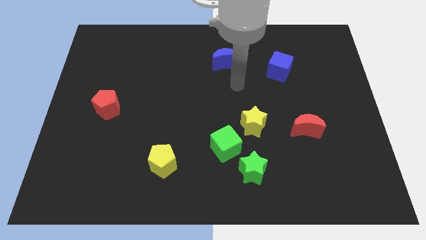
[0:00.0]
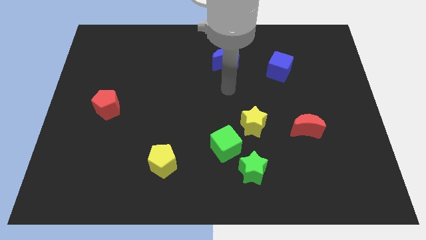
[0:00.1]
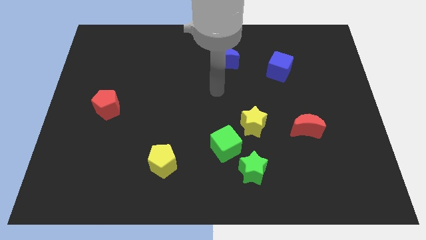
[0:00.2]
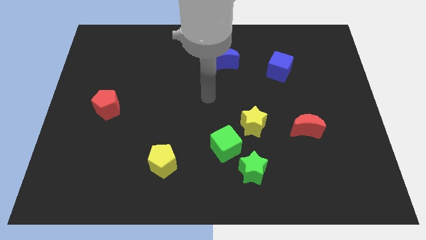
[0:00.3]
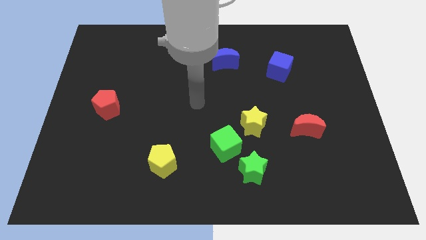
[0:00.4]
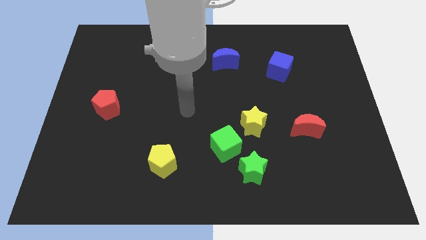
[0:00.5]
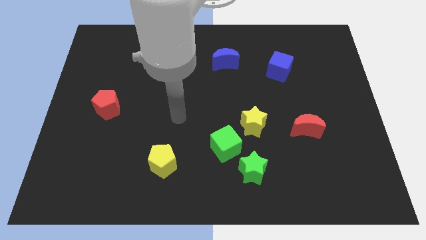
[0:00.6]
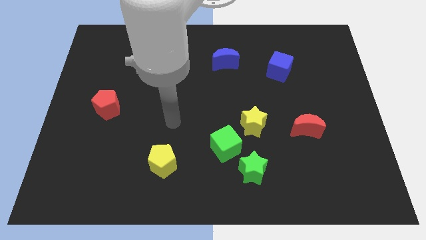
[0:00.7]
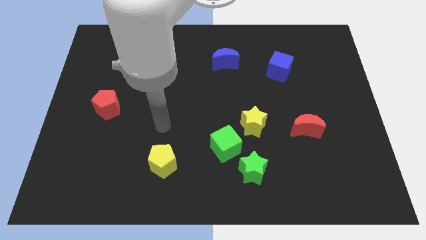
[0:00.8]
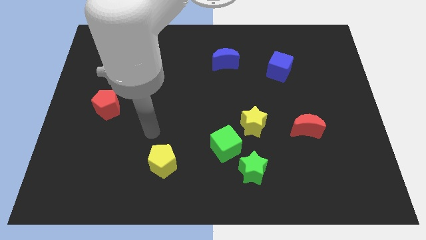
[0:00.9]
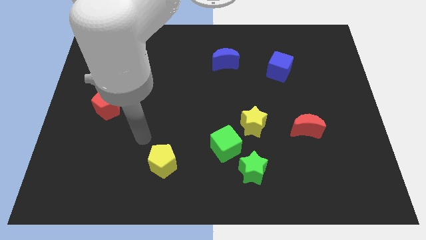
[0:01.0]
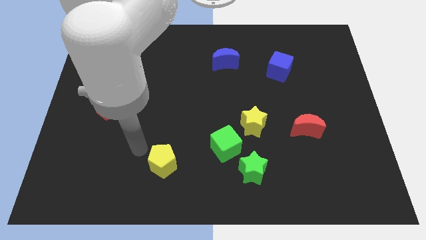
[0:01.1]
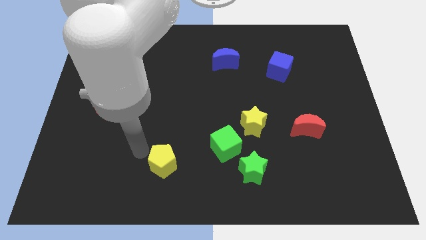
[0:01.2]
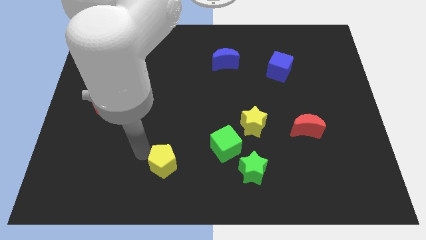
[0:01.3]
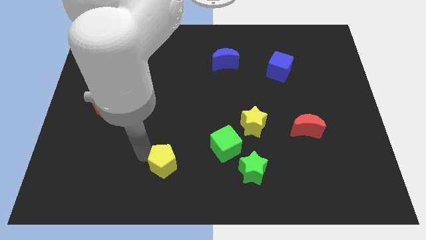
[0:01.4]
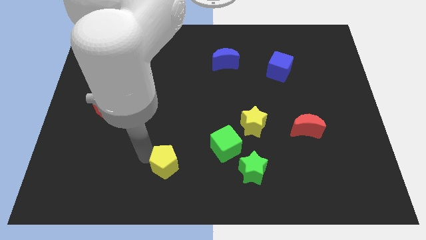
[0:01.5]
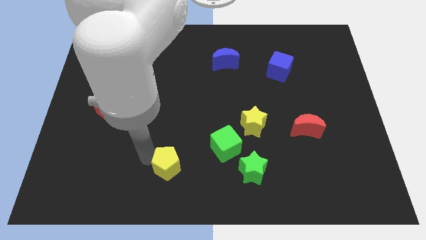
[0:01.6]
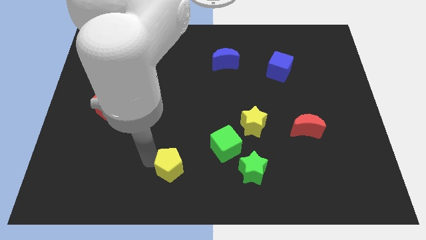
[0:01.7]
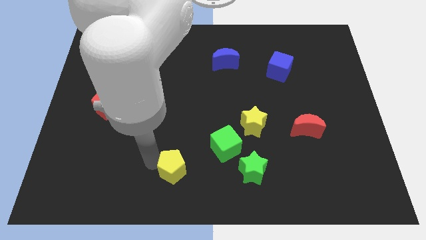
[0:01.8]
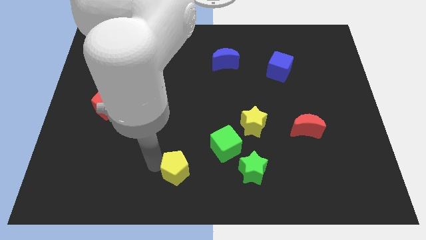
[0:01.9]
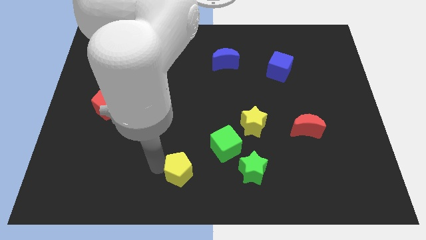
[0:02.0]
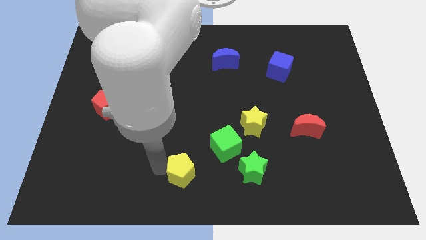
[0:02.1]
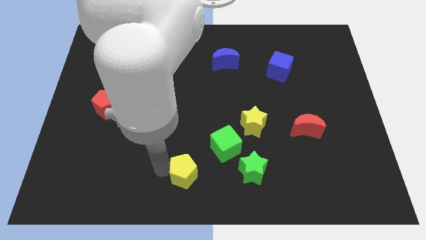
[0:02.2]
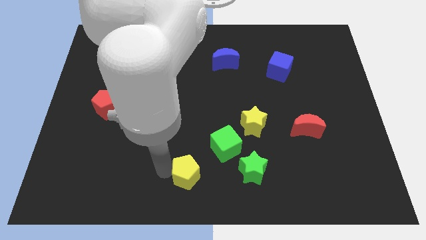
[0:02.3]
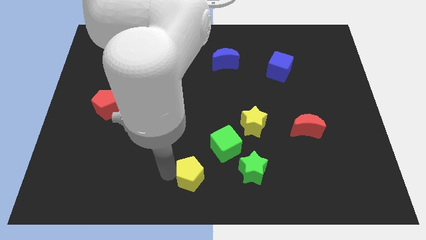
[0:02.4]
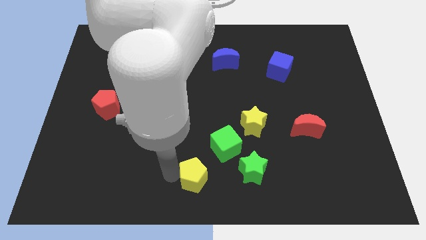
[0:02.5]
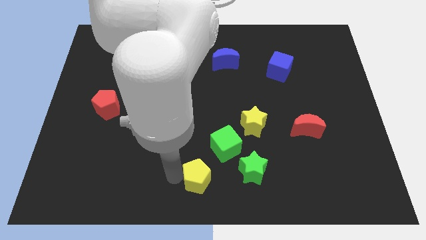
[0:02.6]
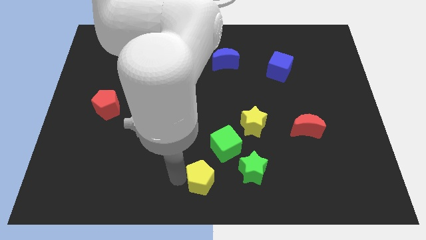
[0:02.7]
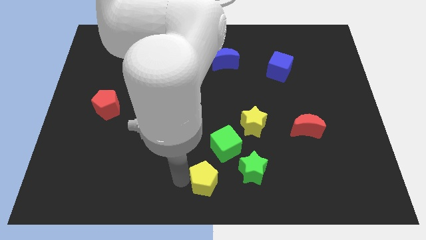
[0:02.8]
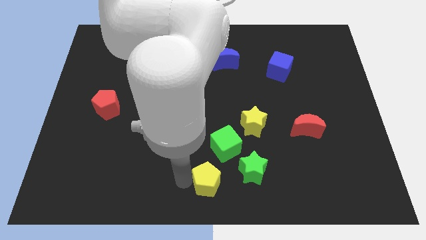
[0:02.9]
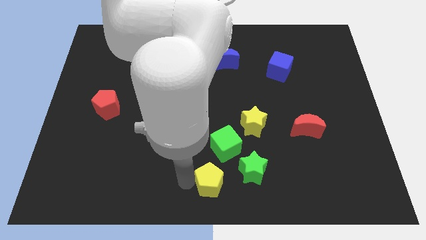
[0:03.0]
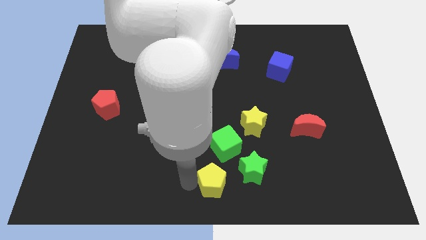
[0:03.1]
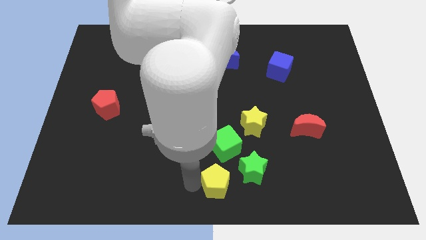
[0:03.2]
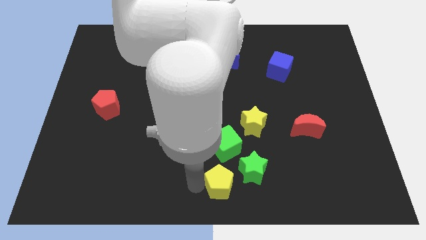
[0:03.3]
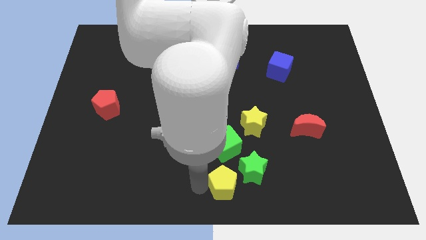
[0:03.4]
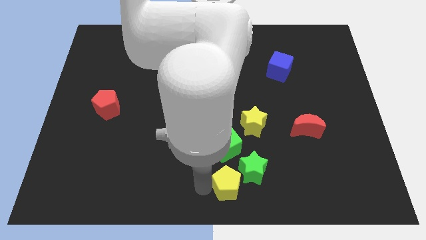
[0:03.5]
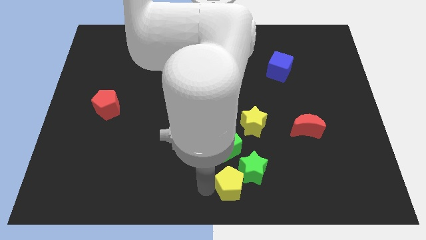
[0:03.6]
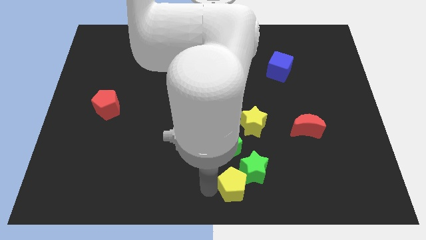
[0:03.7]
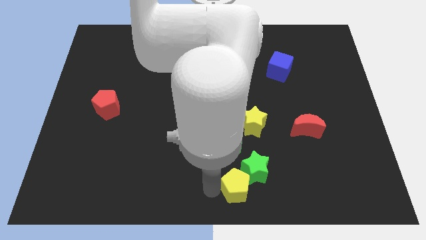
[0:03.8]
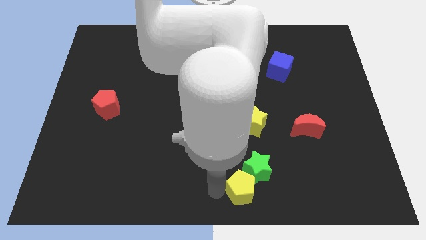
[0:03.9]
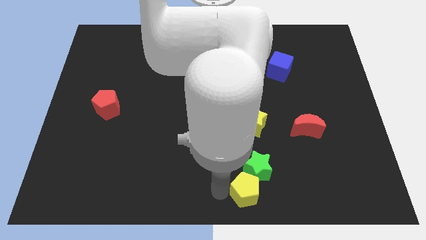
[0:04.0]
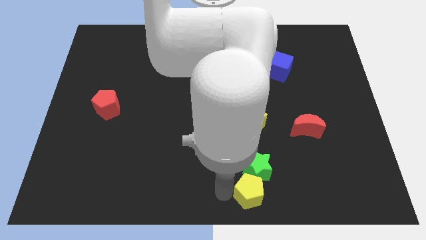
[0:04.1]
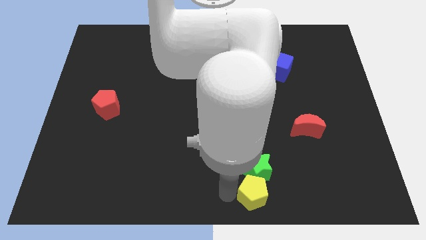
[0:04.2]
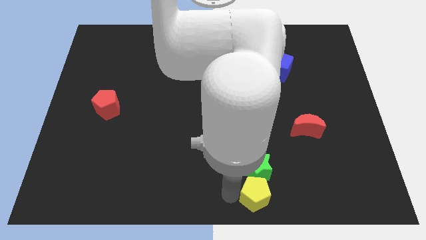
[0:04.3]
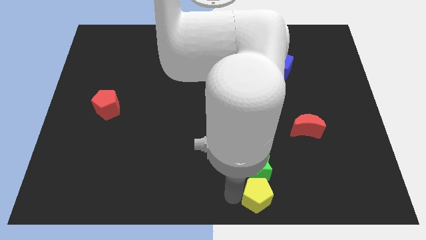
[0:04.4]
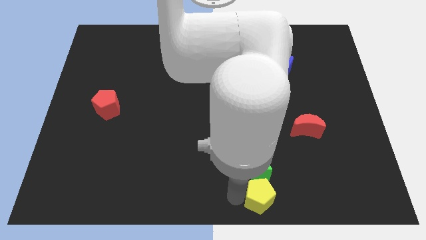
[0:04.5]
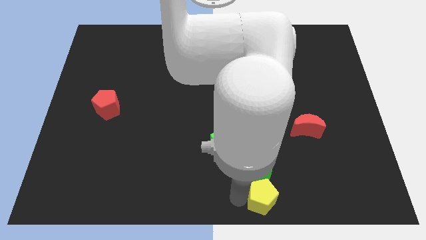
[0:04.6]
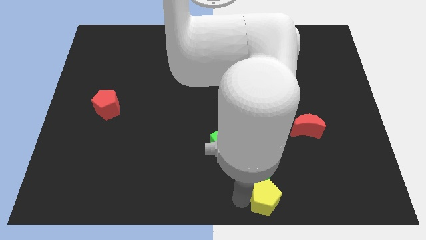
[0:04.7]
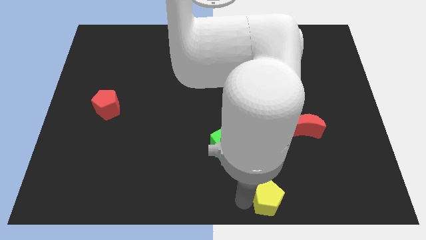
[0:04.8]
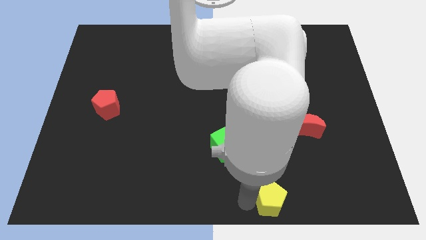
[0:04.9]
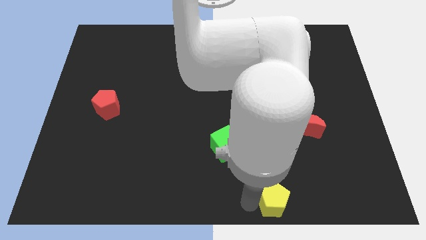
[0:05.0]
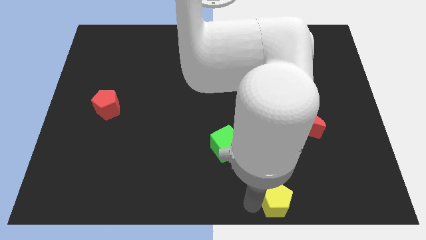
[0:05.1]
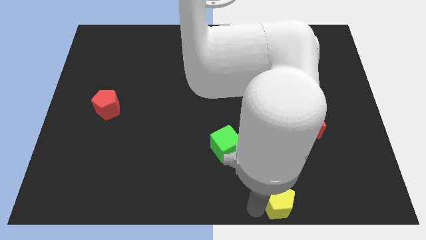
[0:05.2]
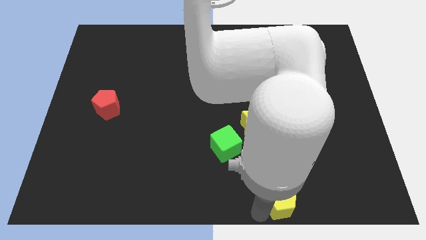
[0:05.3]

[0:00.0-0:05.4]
slide the yellow pentagon to the right

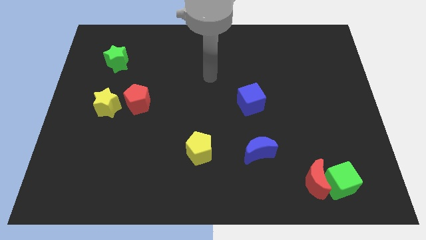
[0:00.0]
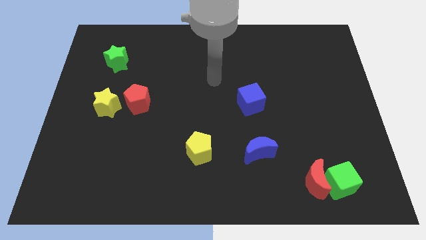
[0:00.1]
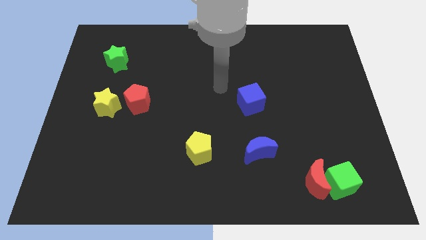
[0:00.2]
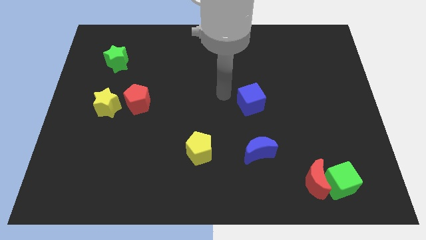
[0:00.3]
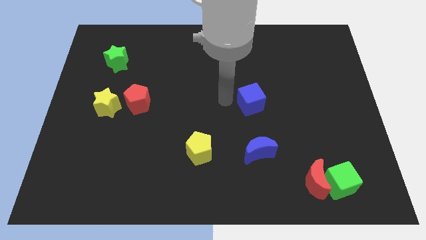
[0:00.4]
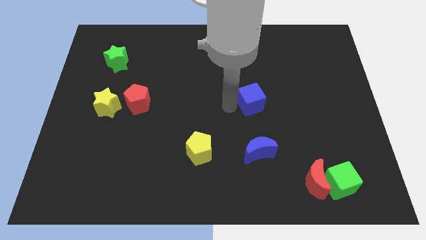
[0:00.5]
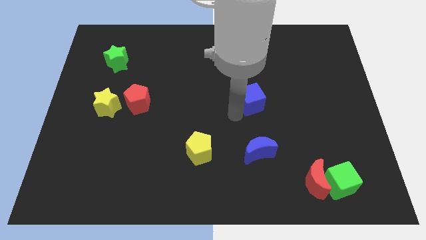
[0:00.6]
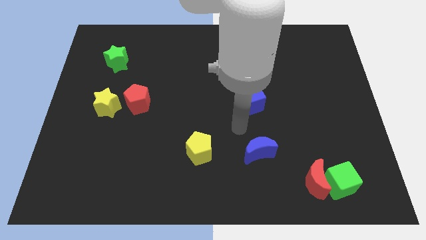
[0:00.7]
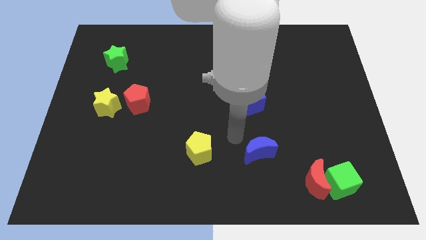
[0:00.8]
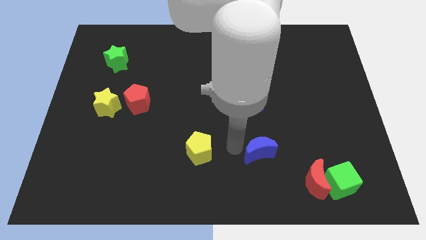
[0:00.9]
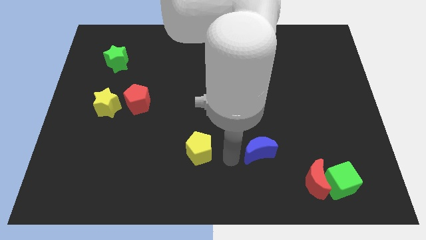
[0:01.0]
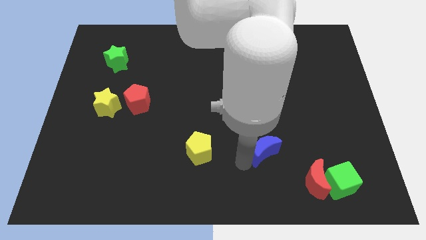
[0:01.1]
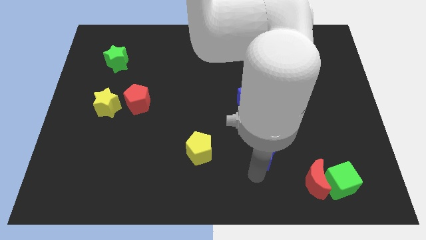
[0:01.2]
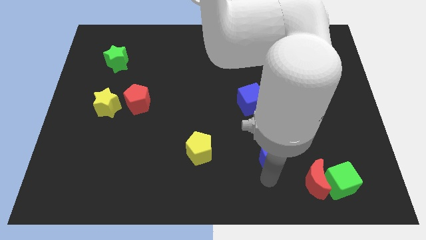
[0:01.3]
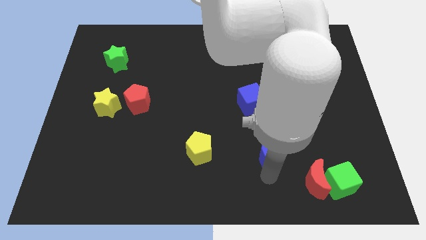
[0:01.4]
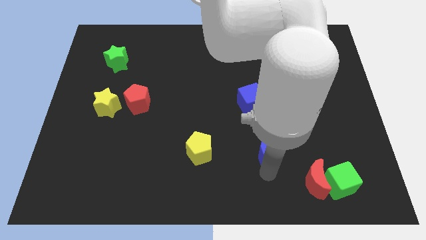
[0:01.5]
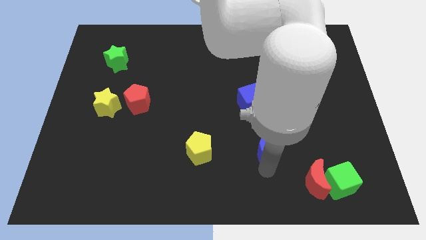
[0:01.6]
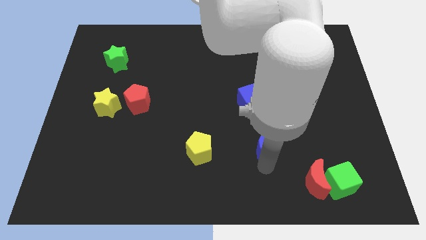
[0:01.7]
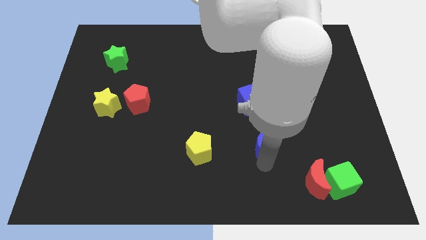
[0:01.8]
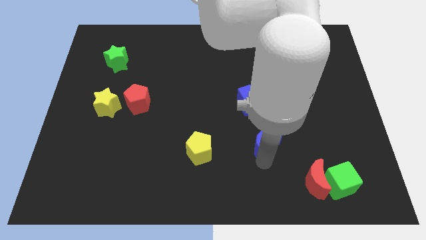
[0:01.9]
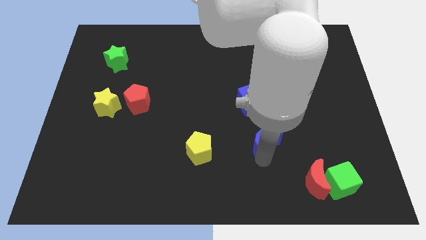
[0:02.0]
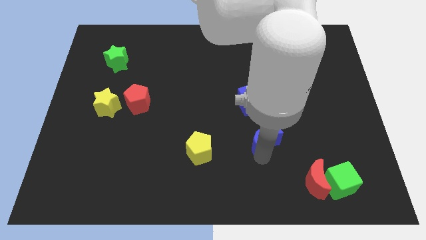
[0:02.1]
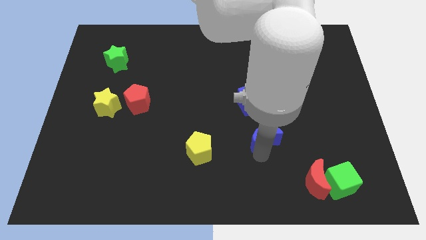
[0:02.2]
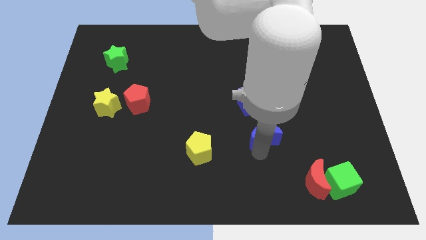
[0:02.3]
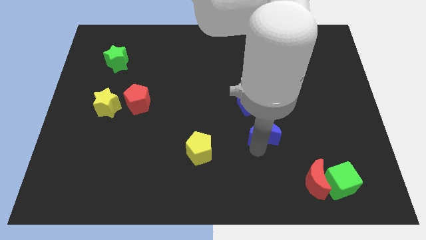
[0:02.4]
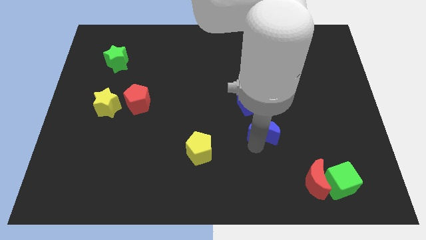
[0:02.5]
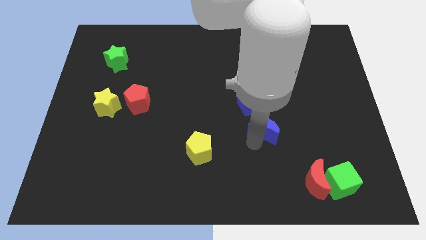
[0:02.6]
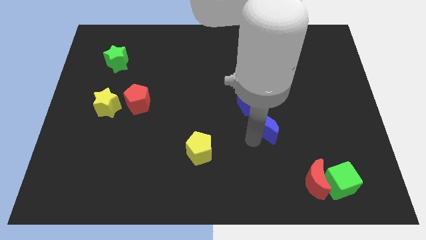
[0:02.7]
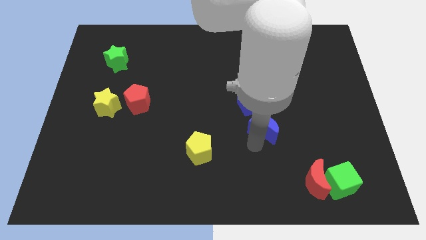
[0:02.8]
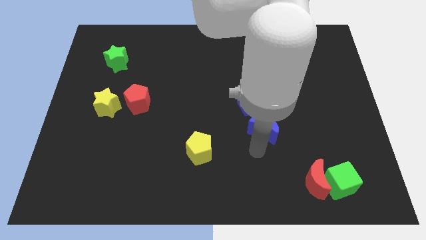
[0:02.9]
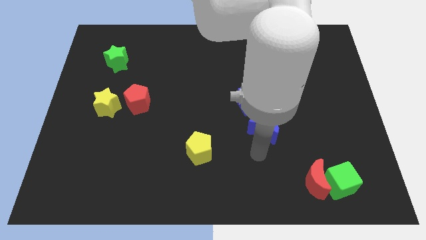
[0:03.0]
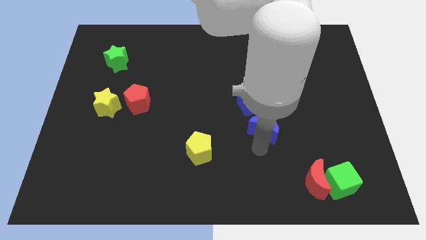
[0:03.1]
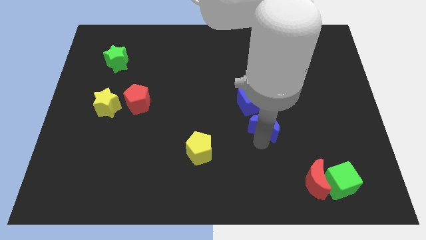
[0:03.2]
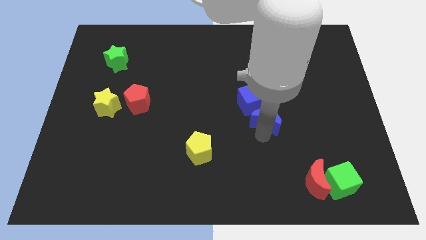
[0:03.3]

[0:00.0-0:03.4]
slightly move the blue moon up
